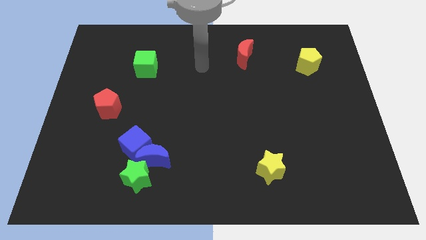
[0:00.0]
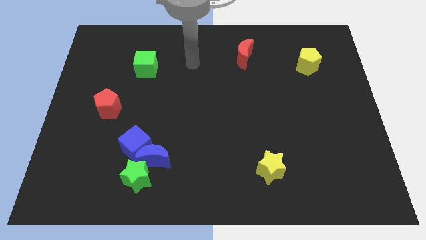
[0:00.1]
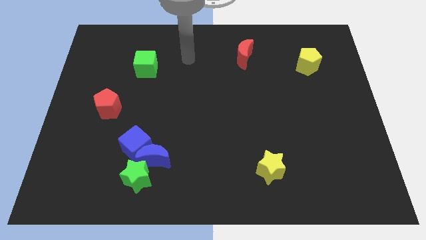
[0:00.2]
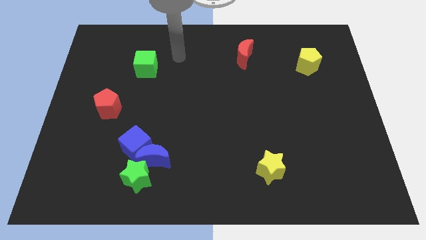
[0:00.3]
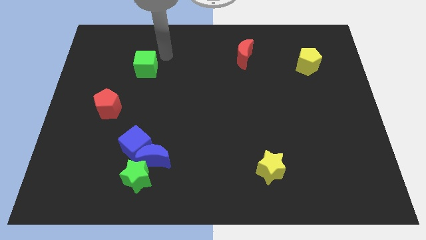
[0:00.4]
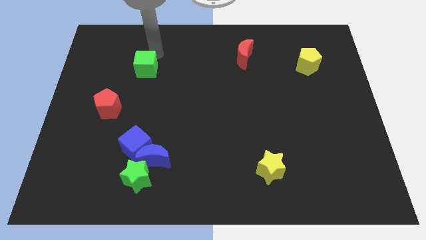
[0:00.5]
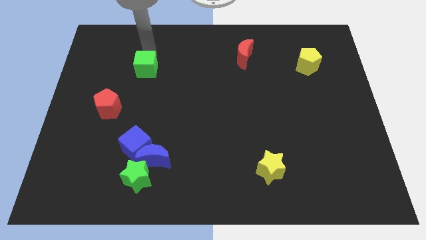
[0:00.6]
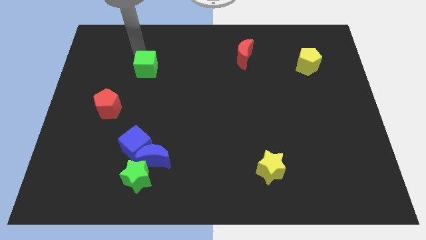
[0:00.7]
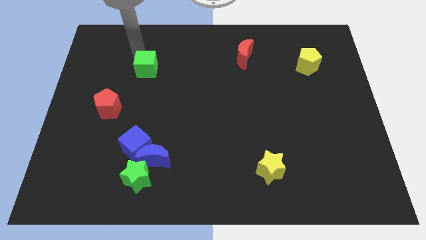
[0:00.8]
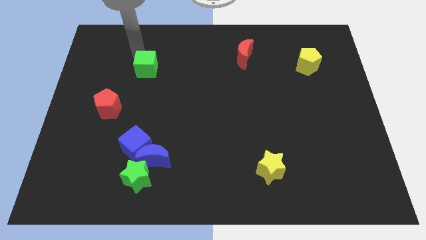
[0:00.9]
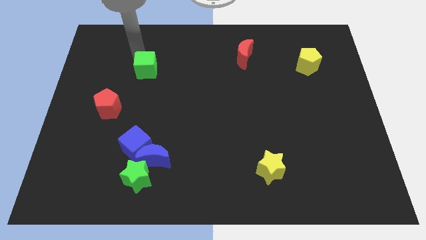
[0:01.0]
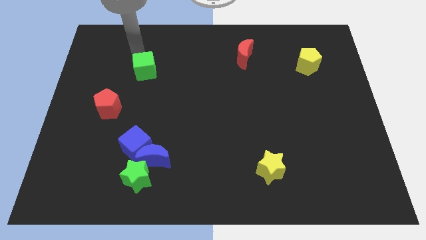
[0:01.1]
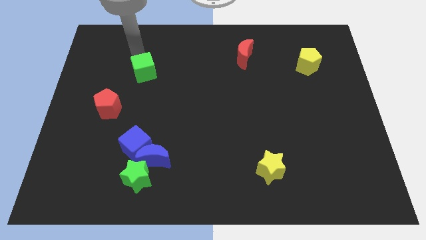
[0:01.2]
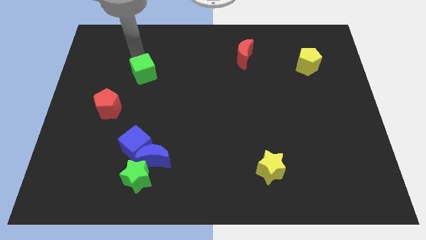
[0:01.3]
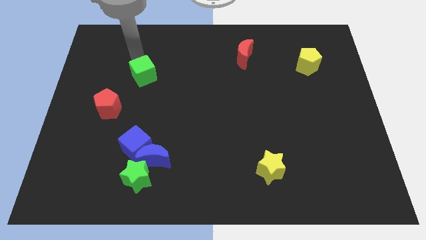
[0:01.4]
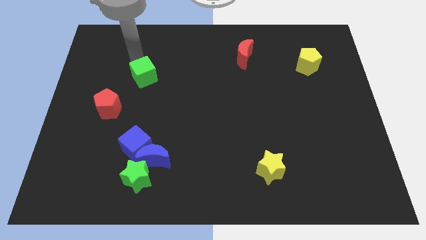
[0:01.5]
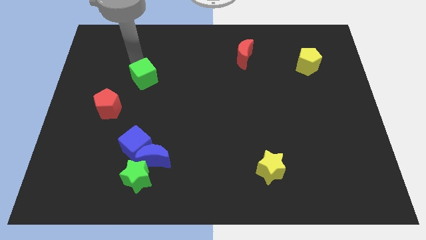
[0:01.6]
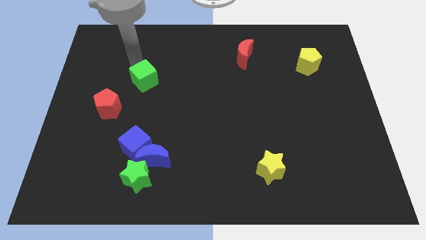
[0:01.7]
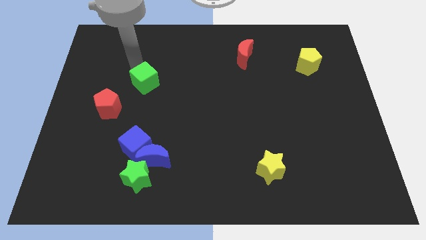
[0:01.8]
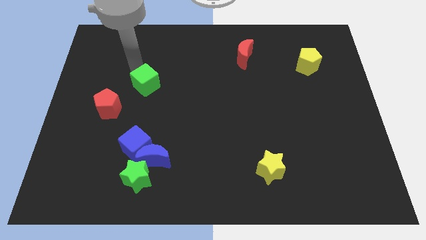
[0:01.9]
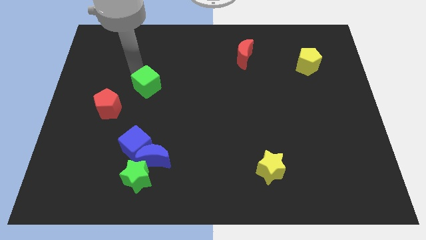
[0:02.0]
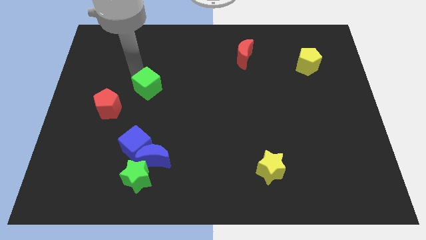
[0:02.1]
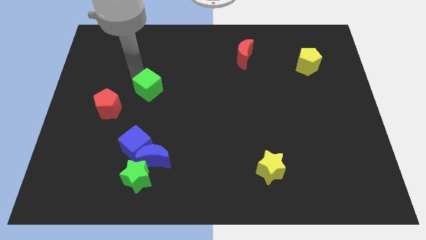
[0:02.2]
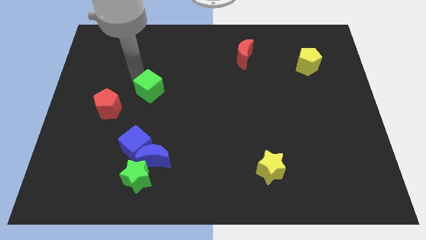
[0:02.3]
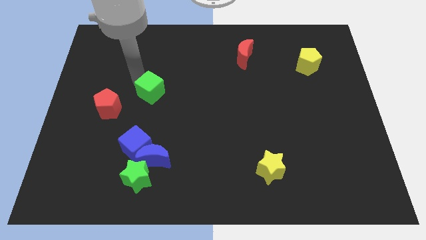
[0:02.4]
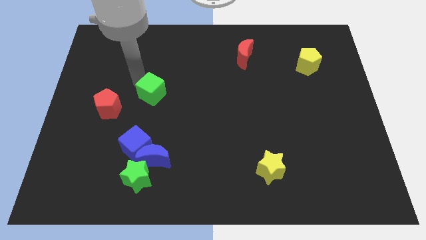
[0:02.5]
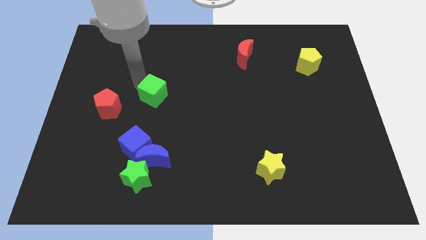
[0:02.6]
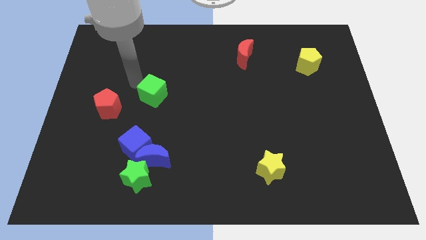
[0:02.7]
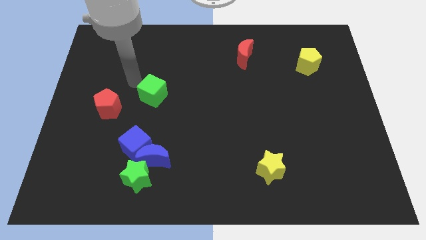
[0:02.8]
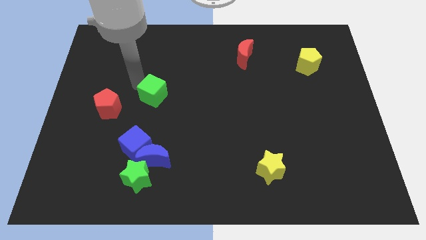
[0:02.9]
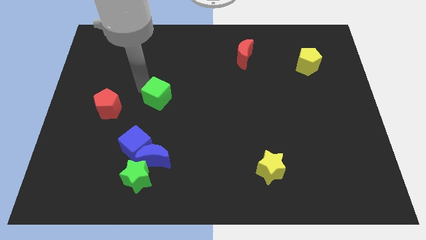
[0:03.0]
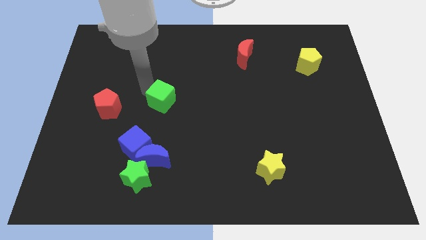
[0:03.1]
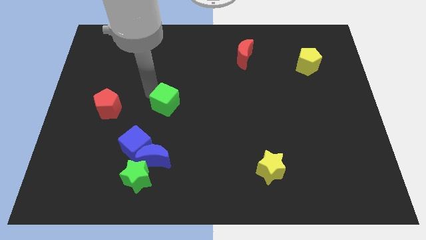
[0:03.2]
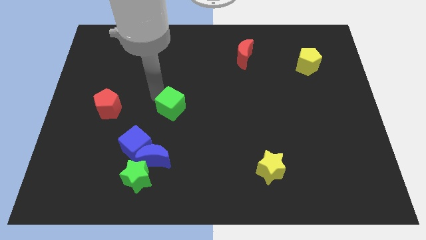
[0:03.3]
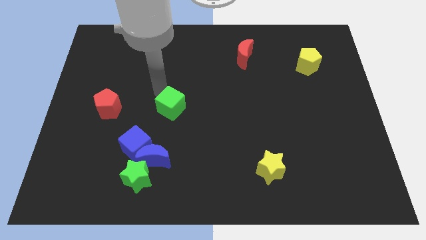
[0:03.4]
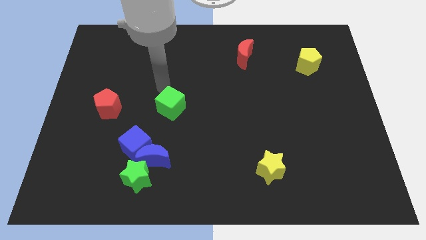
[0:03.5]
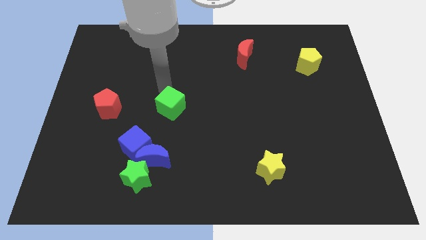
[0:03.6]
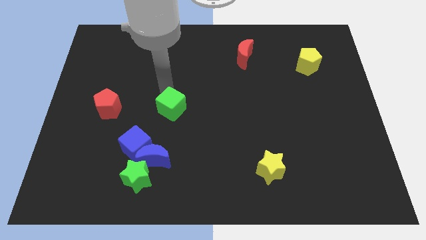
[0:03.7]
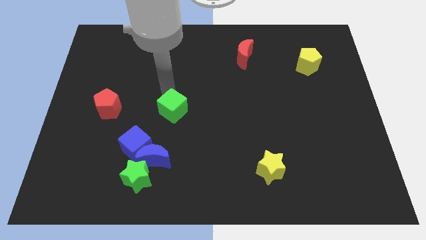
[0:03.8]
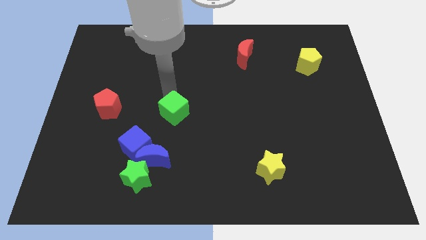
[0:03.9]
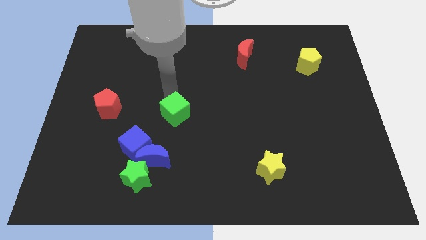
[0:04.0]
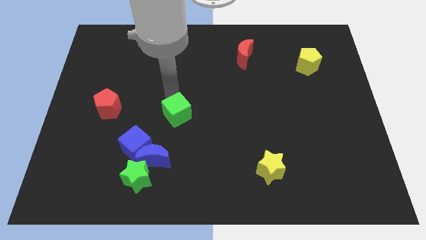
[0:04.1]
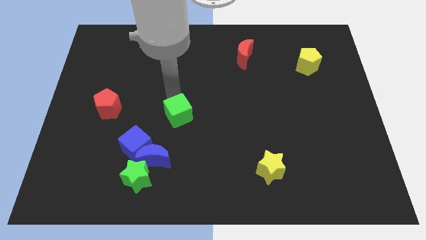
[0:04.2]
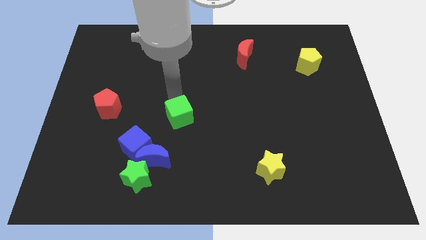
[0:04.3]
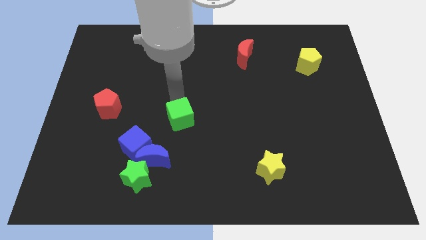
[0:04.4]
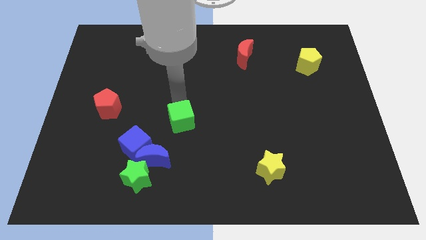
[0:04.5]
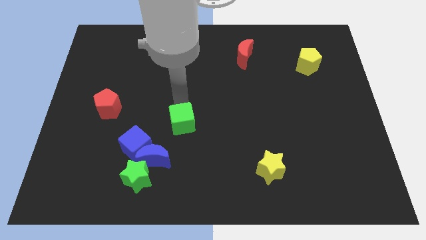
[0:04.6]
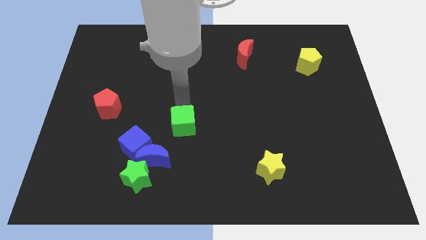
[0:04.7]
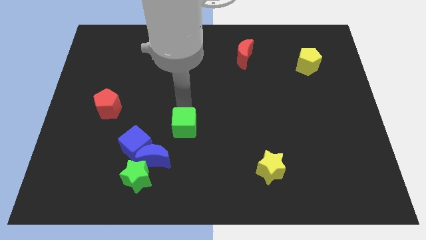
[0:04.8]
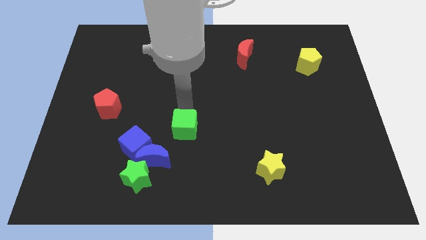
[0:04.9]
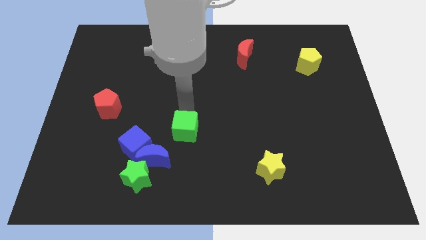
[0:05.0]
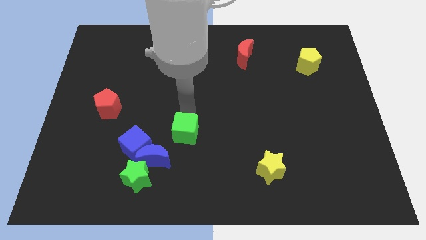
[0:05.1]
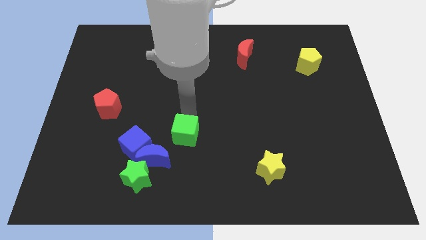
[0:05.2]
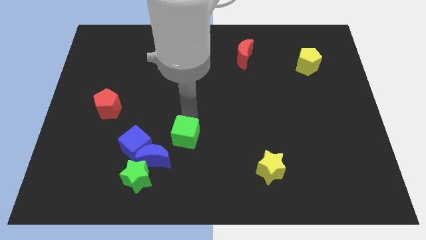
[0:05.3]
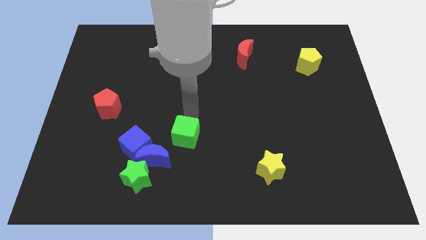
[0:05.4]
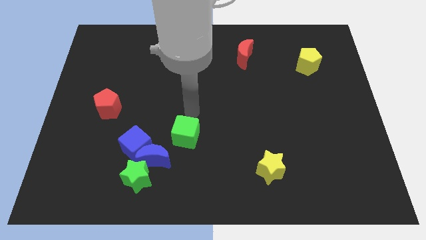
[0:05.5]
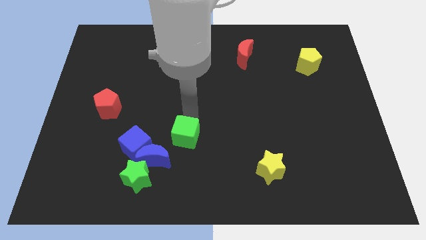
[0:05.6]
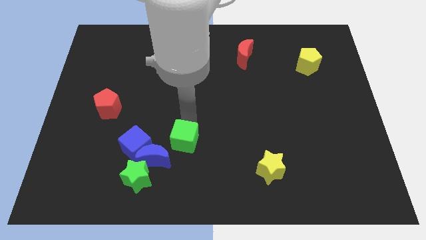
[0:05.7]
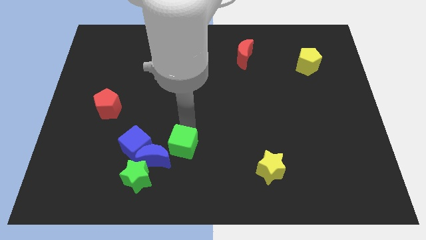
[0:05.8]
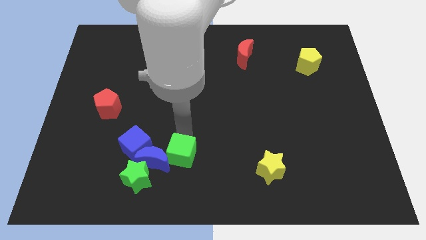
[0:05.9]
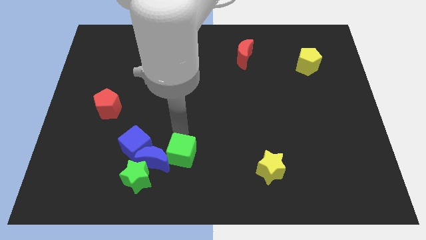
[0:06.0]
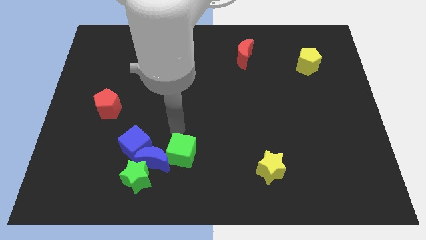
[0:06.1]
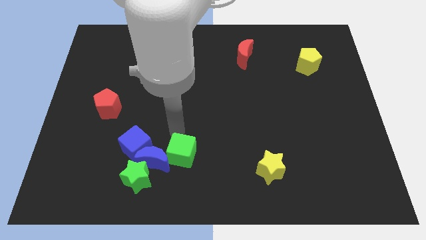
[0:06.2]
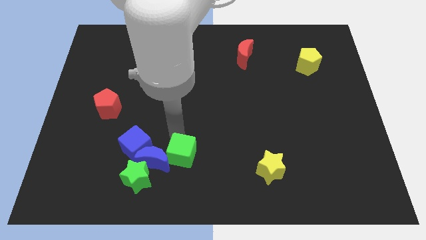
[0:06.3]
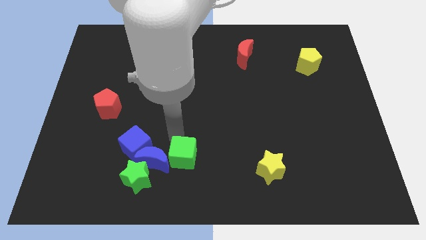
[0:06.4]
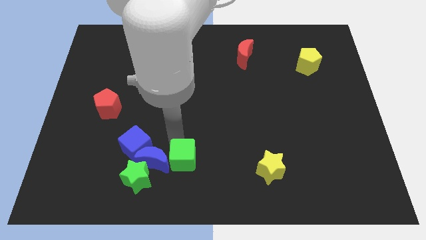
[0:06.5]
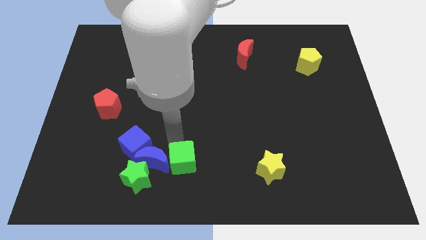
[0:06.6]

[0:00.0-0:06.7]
push the green cube to the right side of the green star
